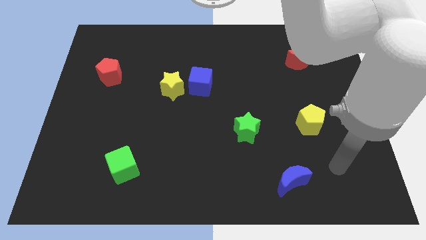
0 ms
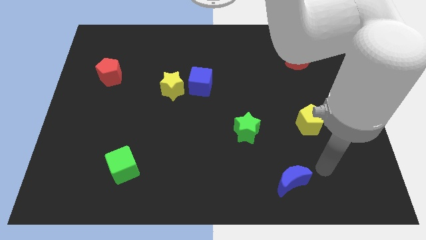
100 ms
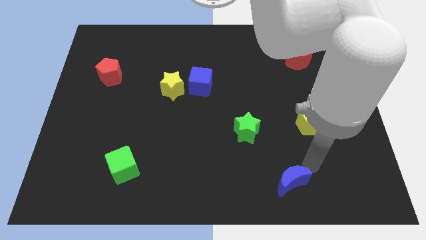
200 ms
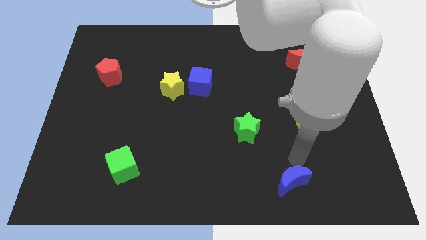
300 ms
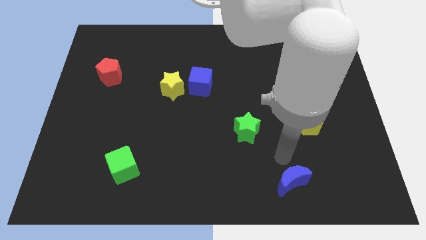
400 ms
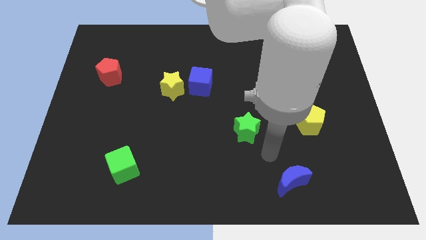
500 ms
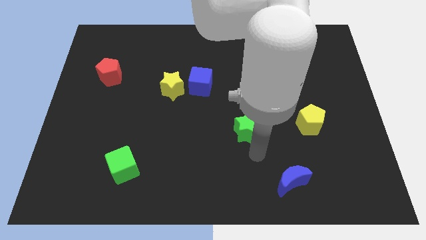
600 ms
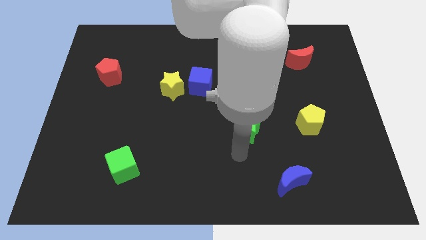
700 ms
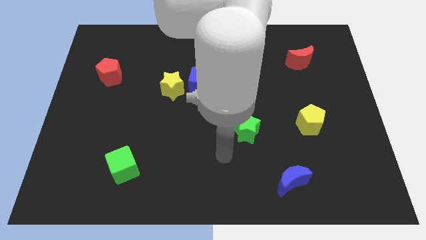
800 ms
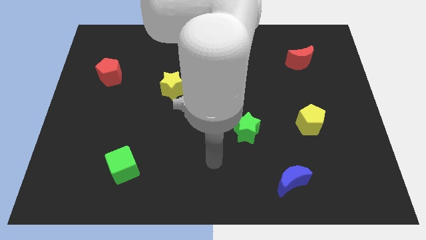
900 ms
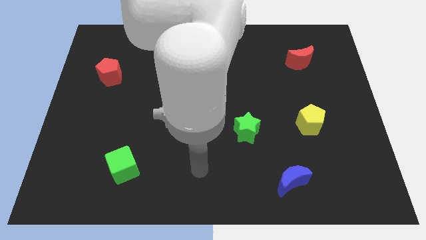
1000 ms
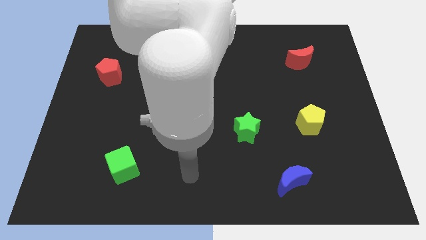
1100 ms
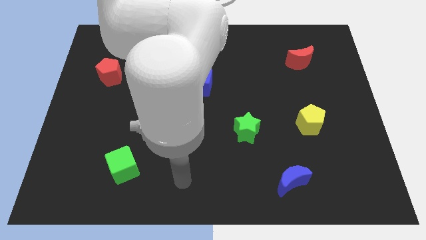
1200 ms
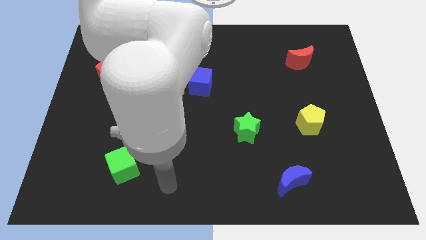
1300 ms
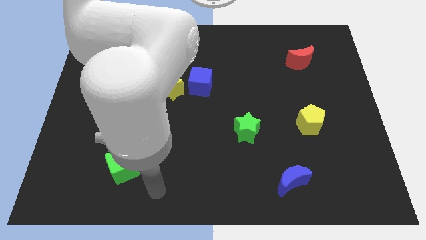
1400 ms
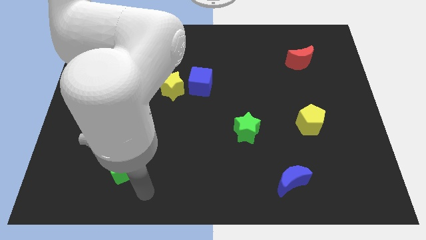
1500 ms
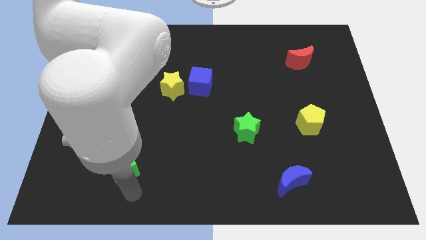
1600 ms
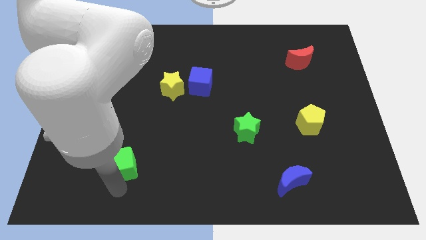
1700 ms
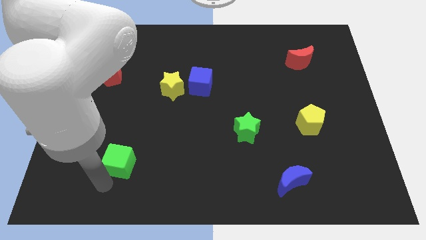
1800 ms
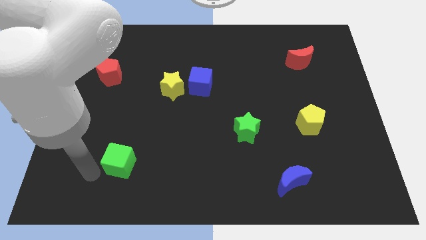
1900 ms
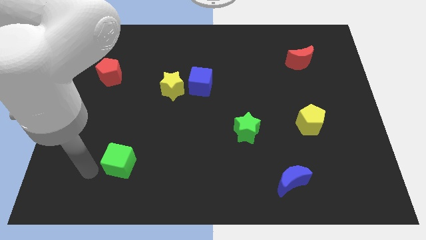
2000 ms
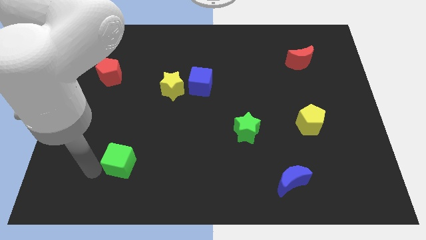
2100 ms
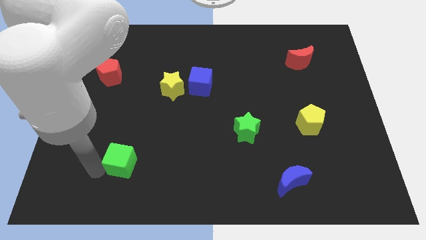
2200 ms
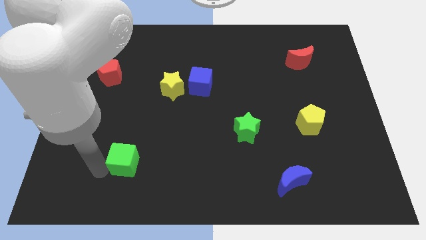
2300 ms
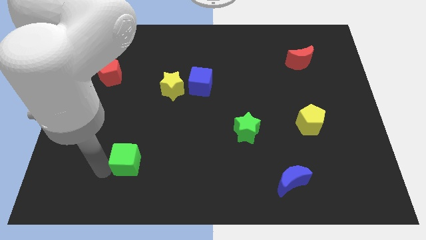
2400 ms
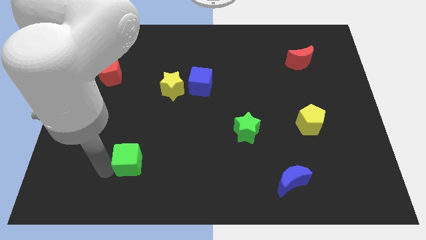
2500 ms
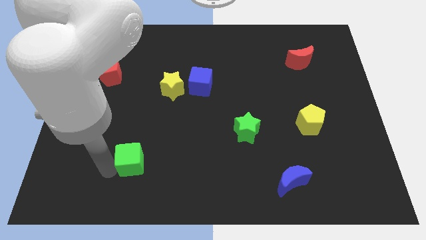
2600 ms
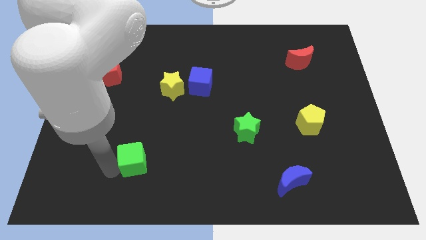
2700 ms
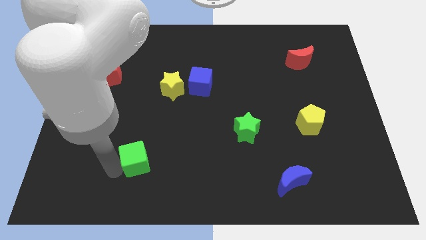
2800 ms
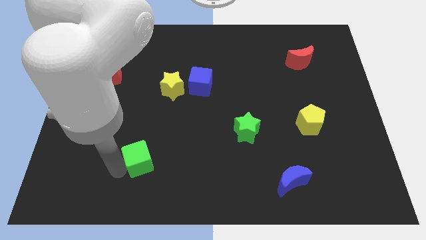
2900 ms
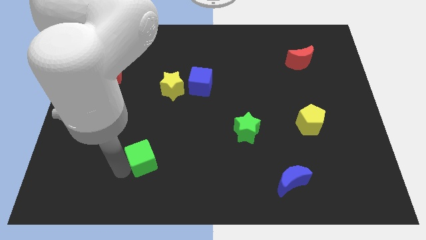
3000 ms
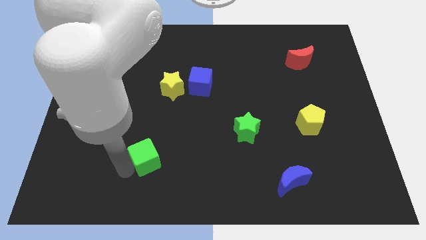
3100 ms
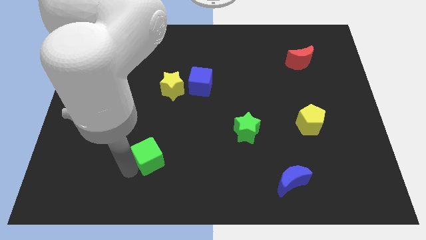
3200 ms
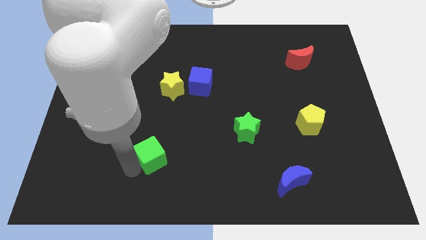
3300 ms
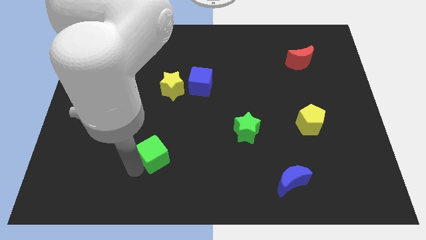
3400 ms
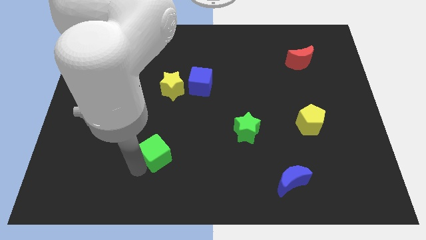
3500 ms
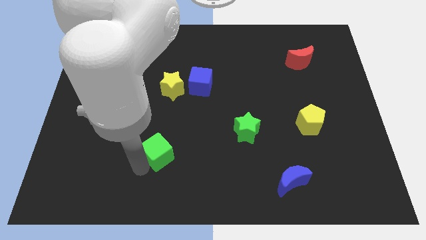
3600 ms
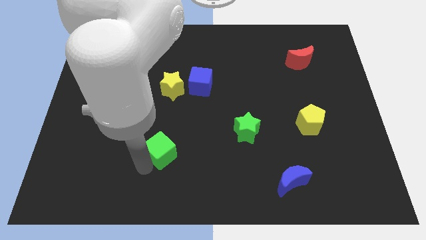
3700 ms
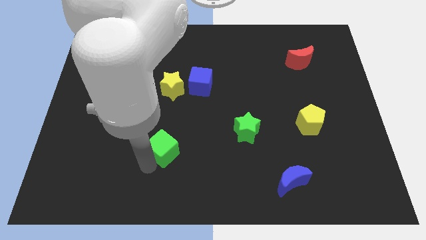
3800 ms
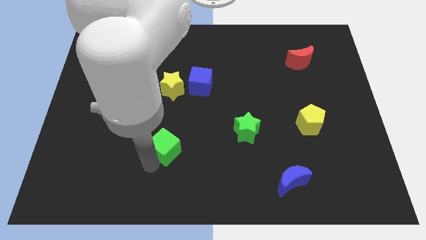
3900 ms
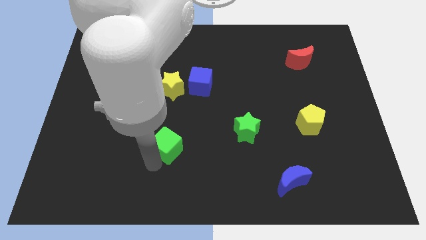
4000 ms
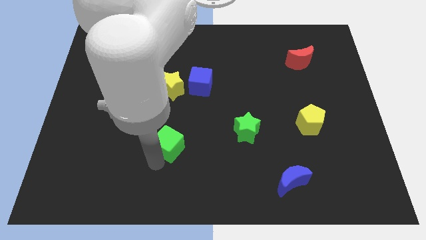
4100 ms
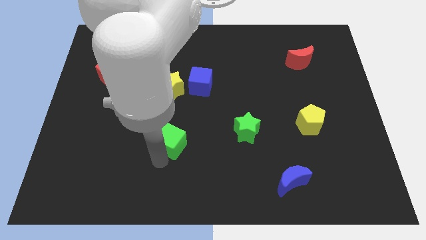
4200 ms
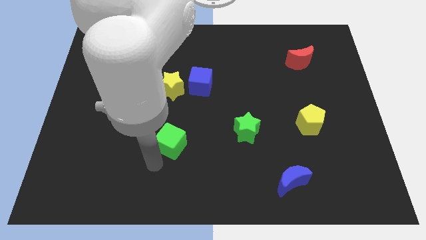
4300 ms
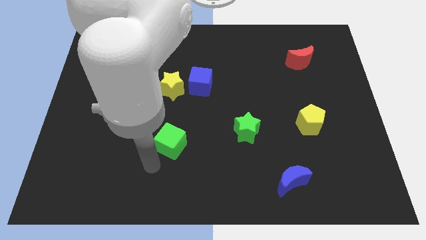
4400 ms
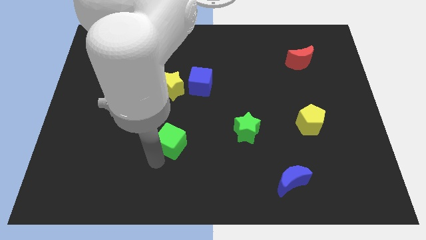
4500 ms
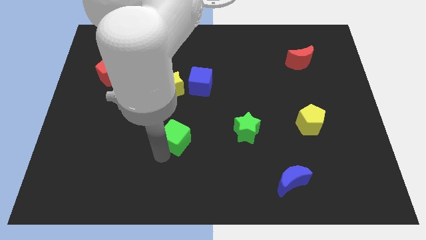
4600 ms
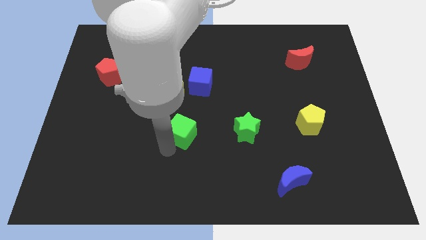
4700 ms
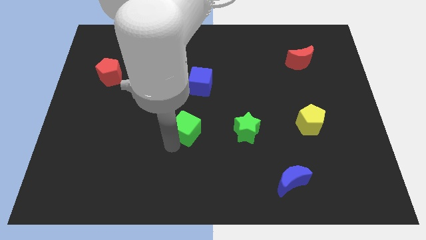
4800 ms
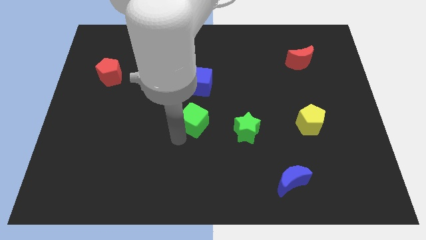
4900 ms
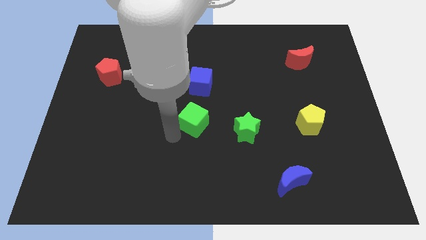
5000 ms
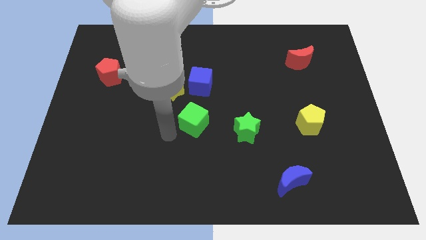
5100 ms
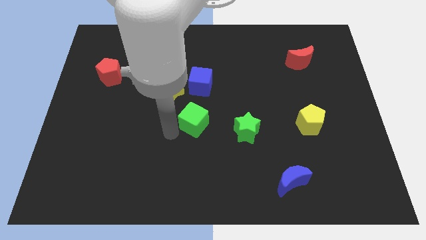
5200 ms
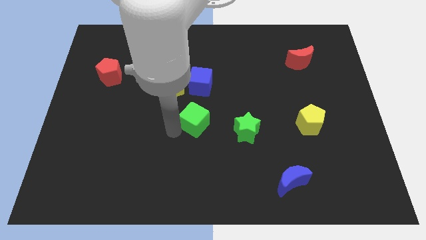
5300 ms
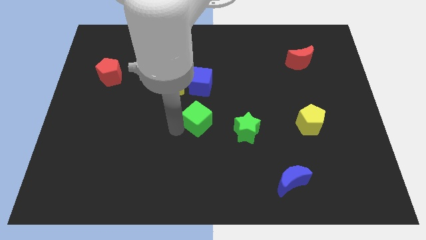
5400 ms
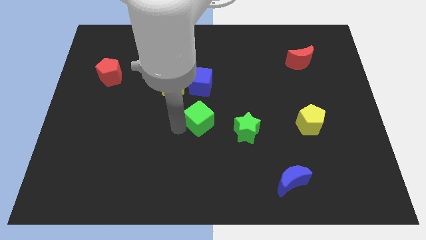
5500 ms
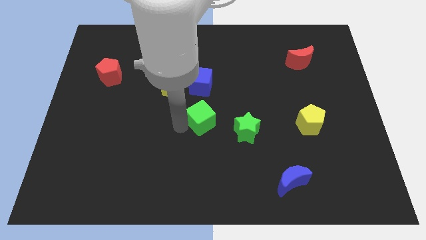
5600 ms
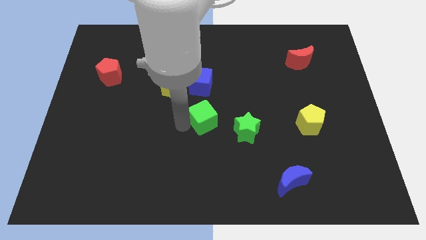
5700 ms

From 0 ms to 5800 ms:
slide the green cube up and then to the right

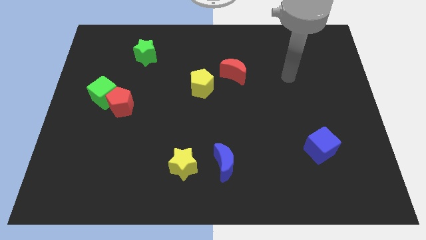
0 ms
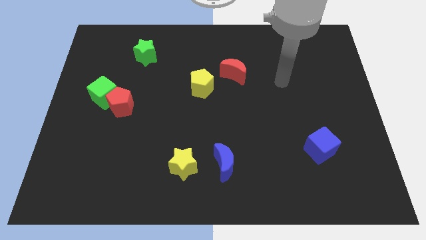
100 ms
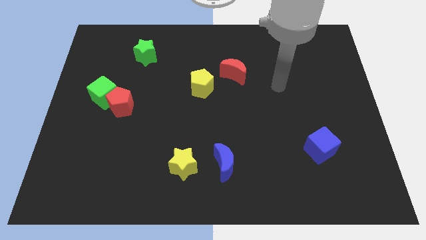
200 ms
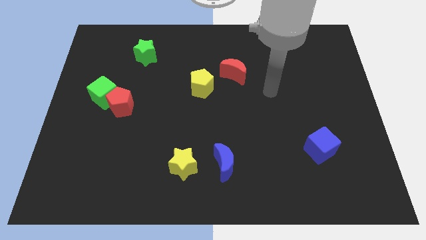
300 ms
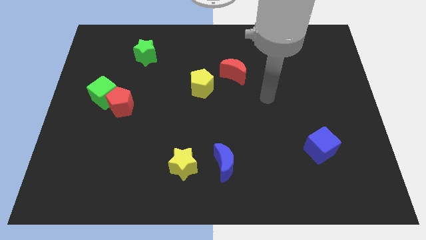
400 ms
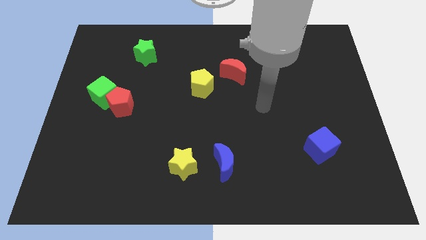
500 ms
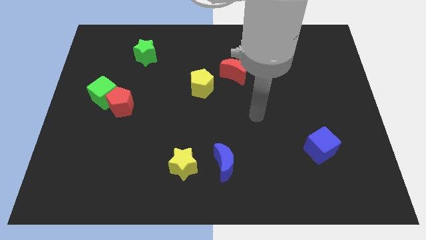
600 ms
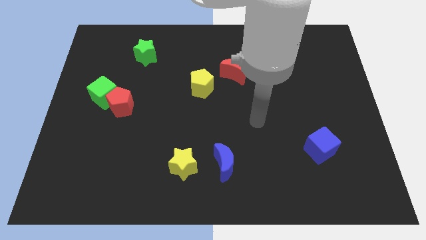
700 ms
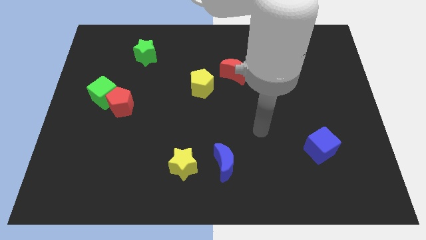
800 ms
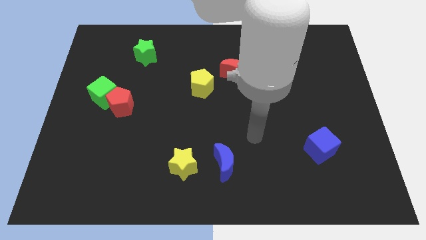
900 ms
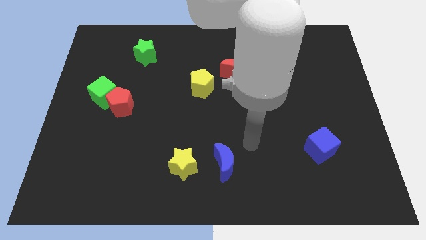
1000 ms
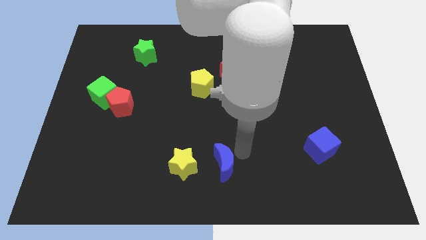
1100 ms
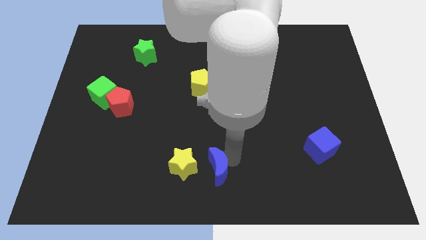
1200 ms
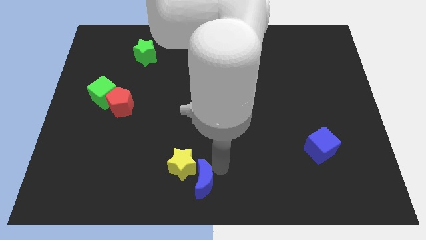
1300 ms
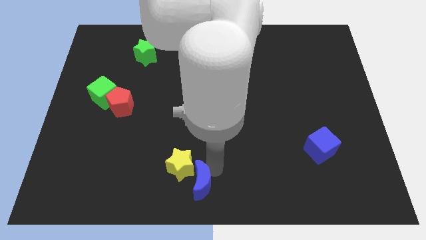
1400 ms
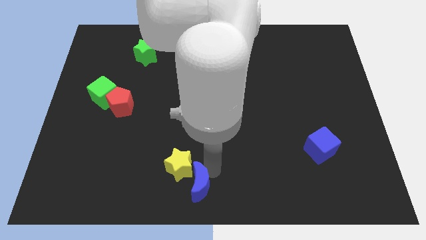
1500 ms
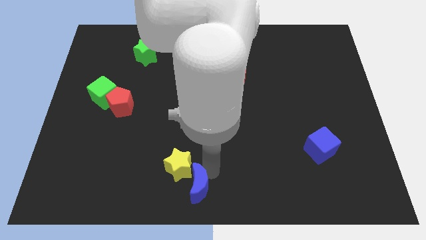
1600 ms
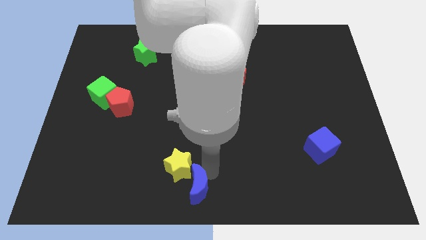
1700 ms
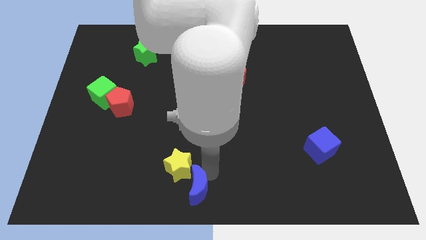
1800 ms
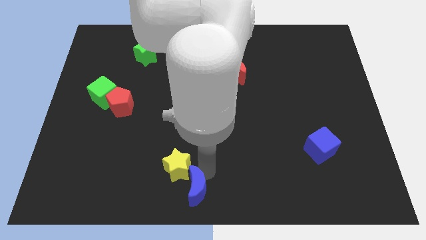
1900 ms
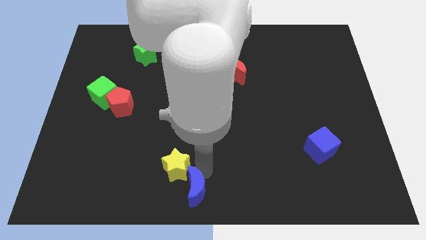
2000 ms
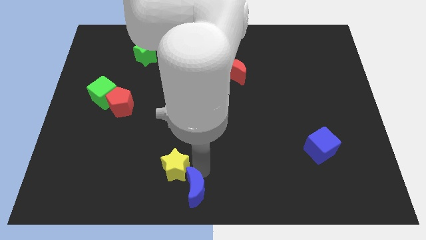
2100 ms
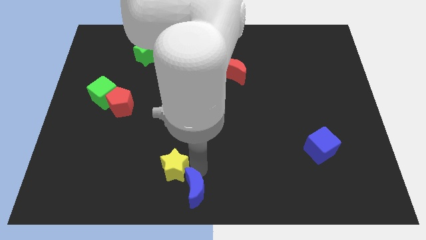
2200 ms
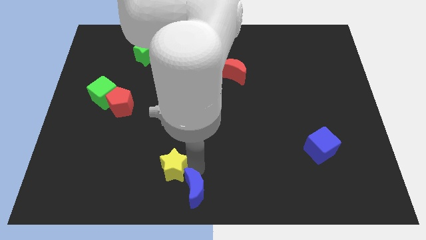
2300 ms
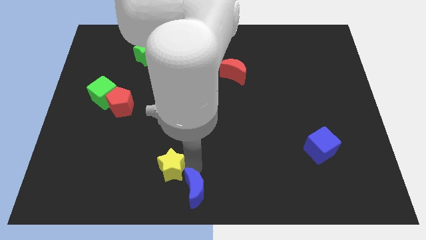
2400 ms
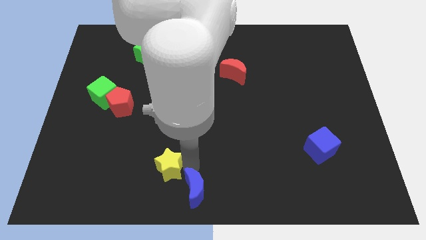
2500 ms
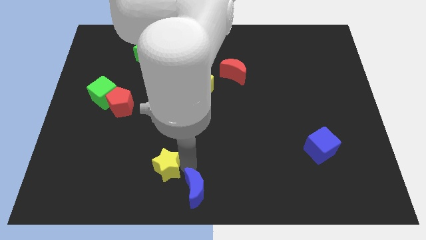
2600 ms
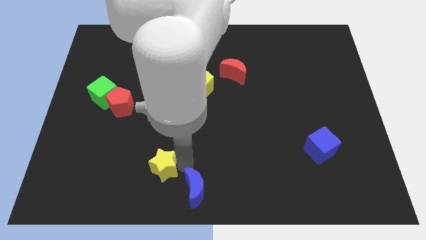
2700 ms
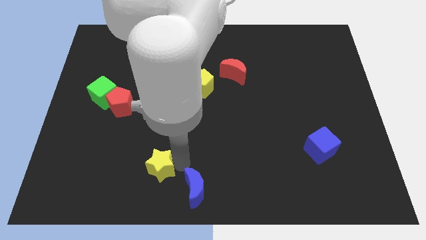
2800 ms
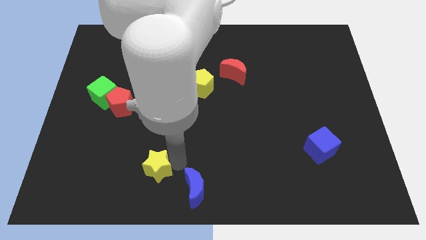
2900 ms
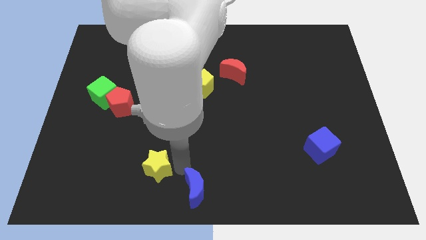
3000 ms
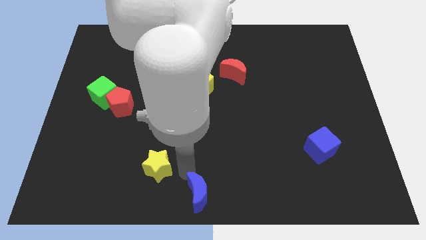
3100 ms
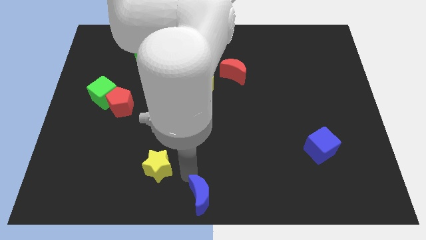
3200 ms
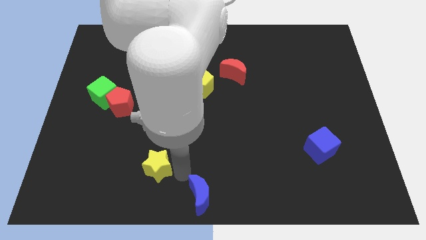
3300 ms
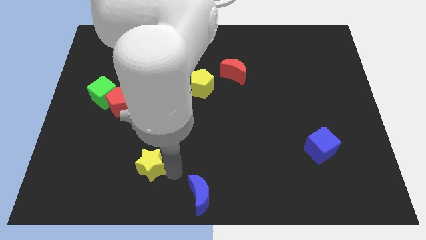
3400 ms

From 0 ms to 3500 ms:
push the yellow star left a little bit
